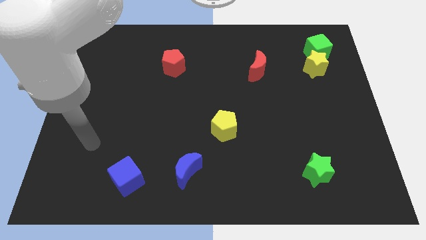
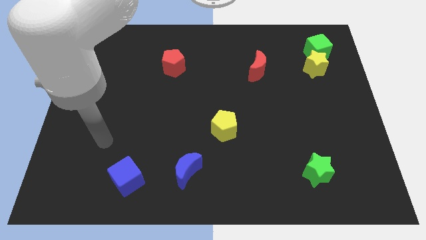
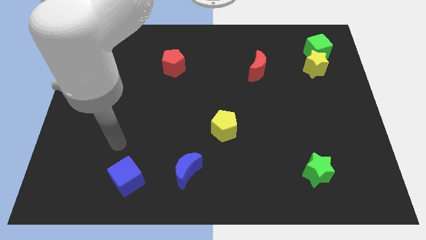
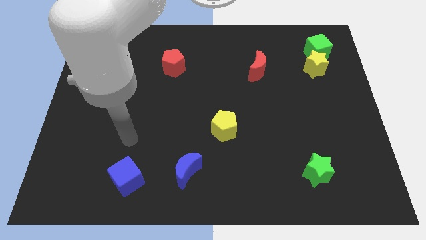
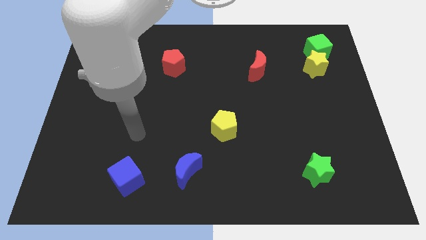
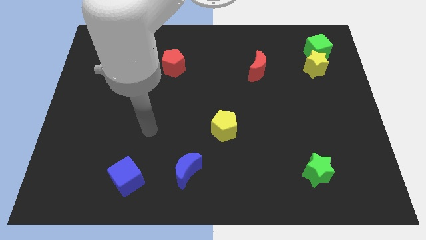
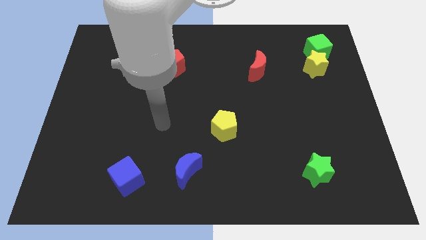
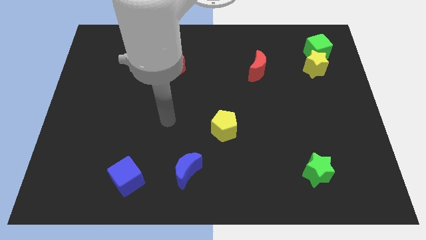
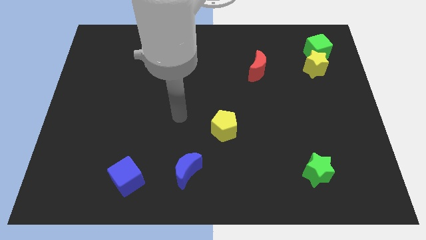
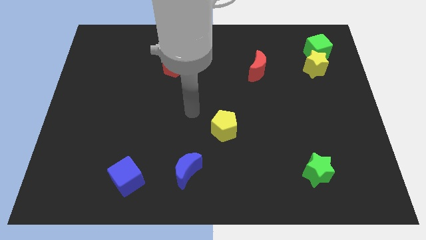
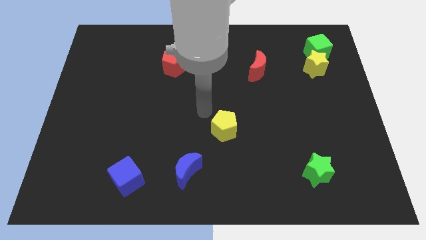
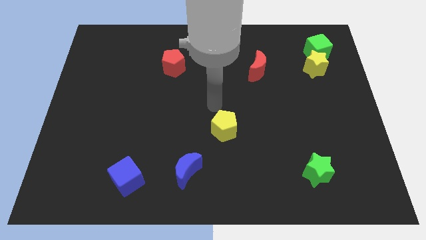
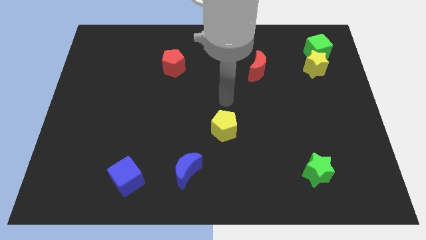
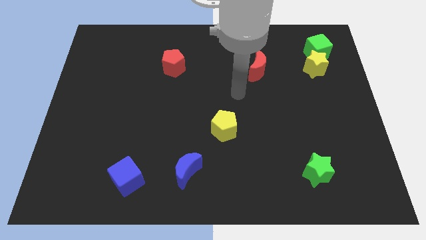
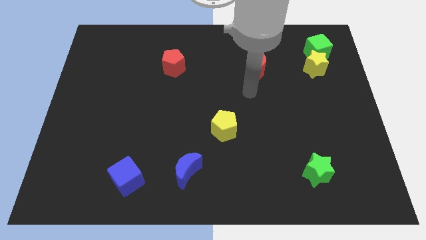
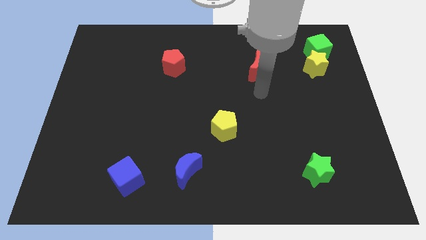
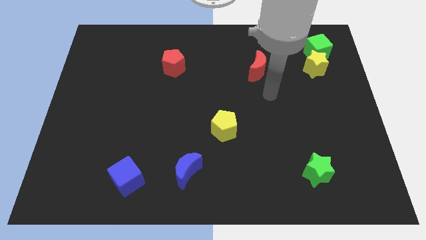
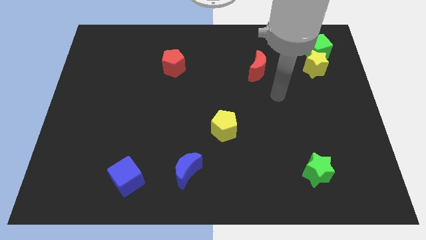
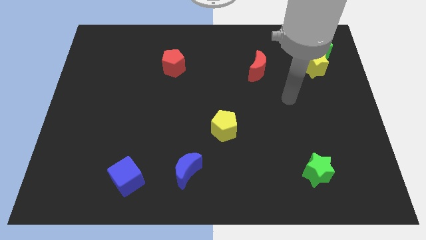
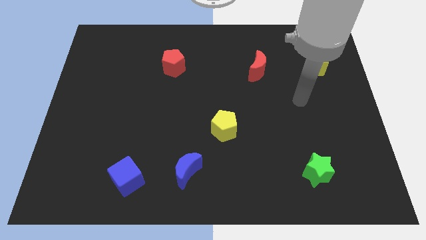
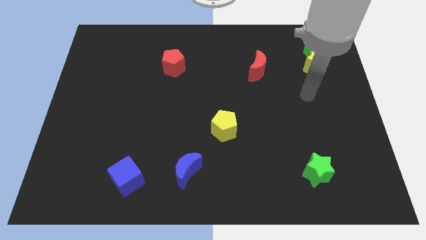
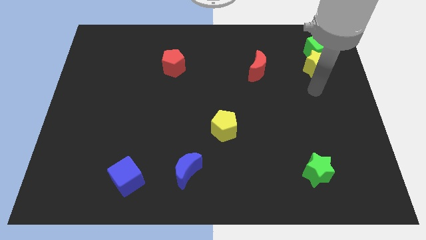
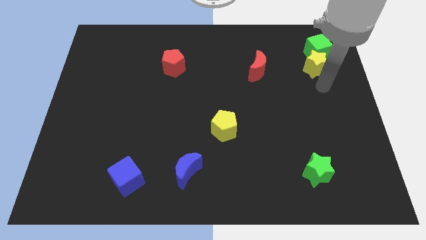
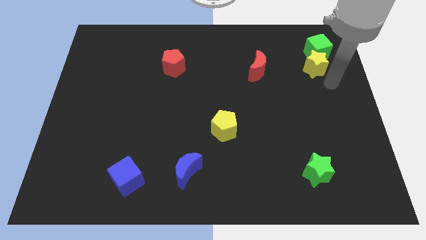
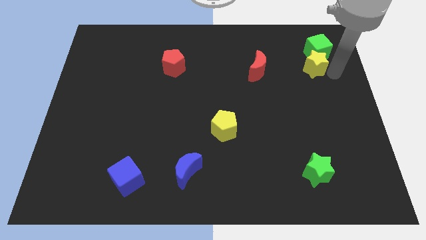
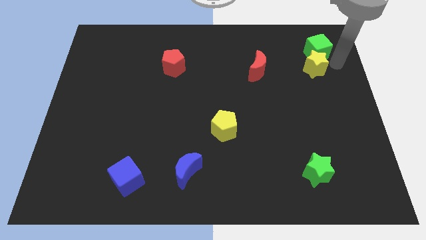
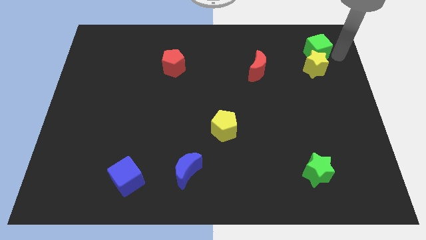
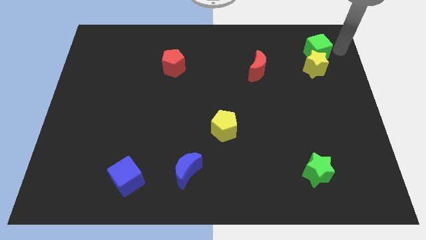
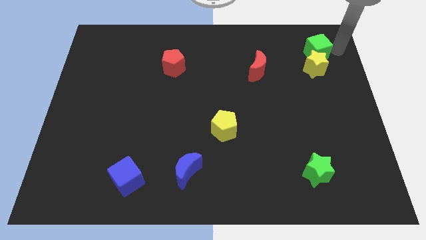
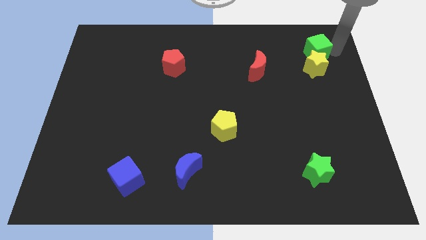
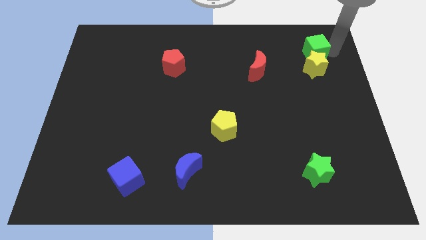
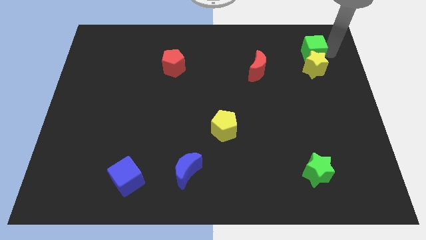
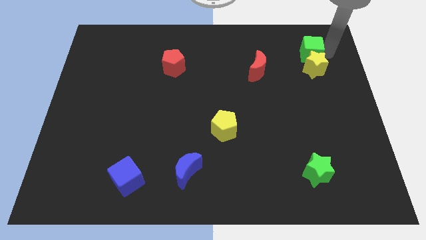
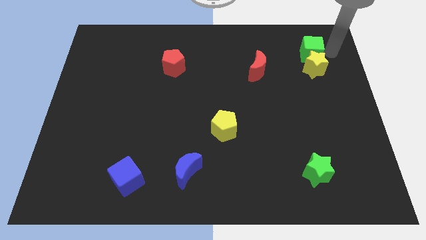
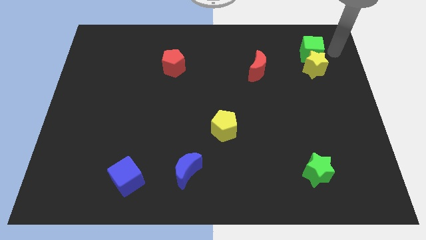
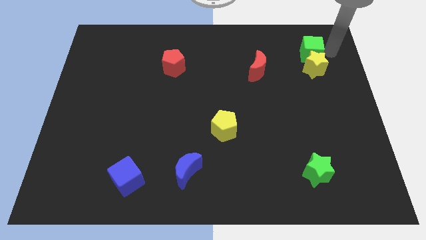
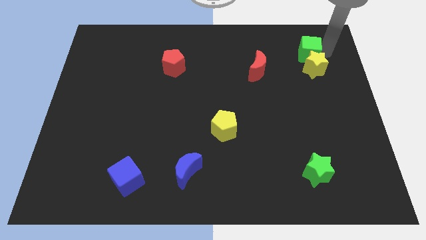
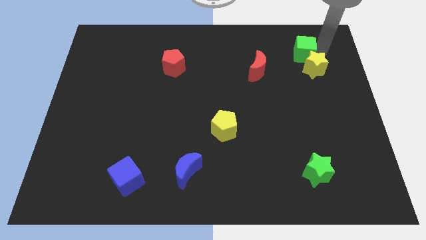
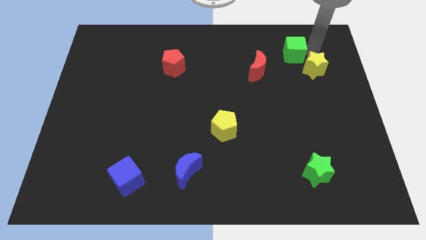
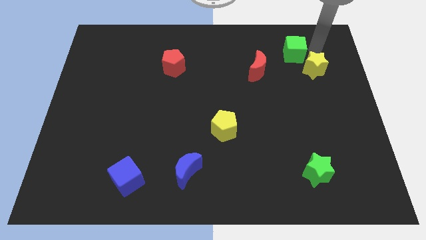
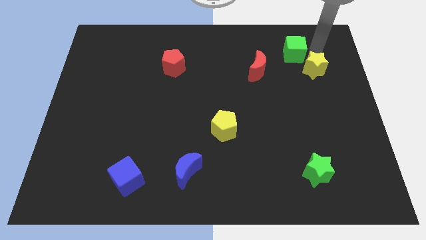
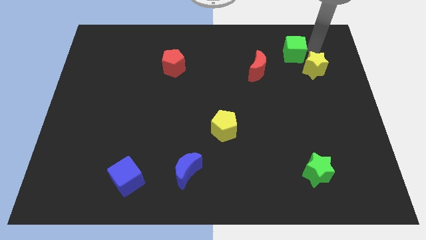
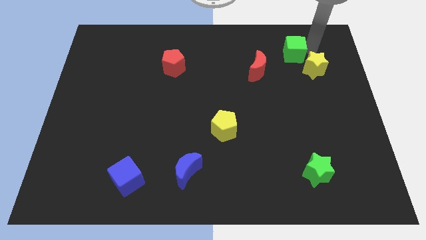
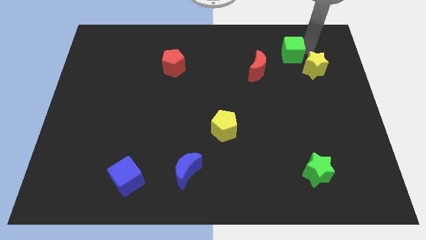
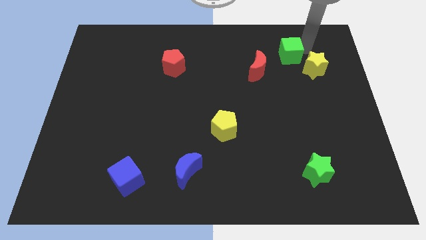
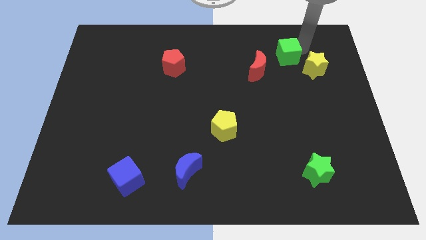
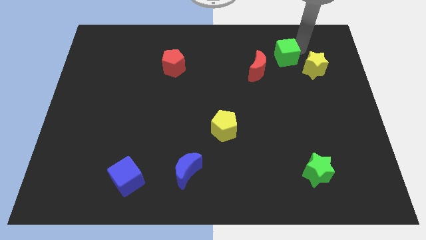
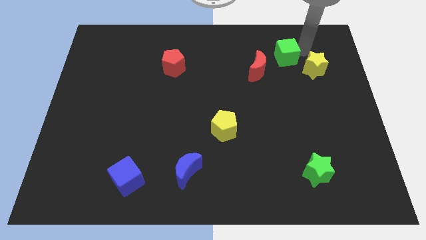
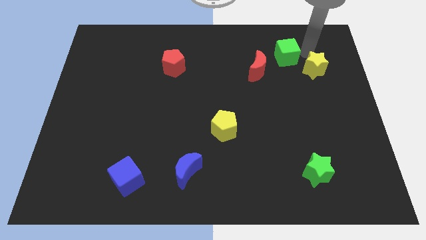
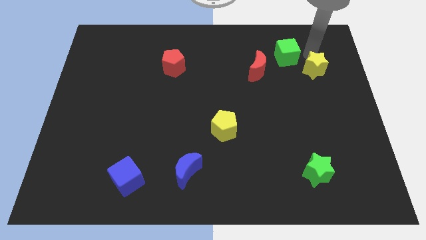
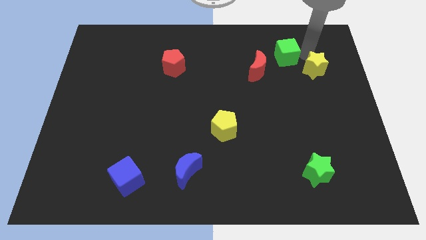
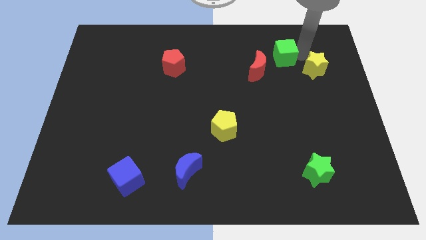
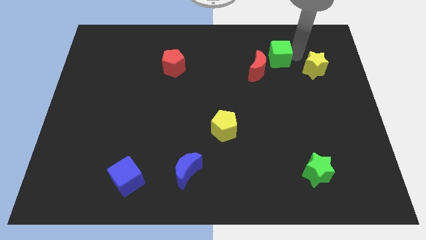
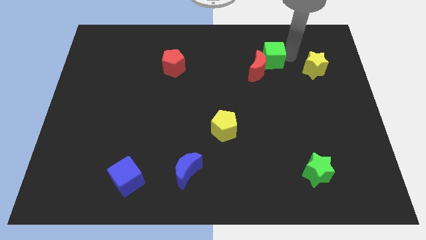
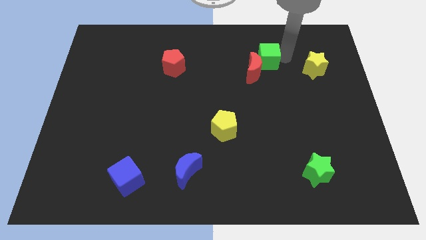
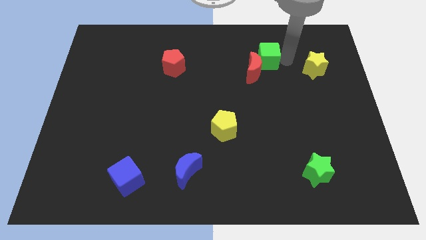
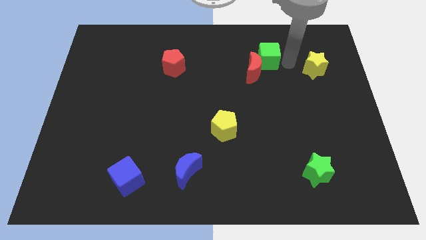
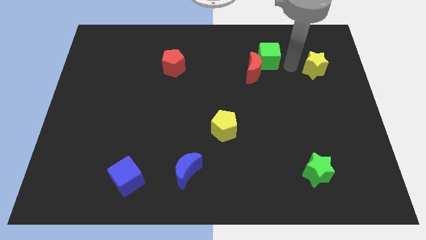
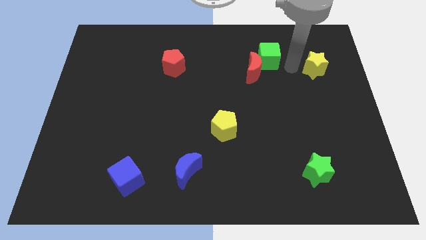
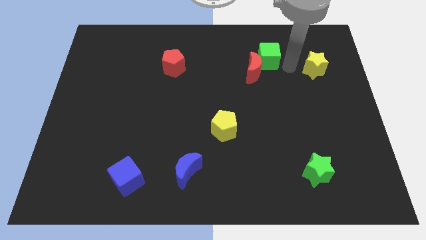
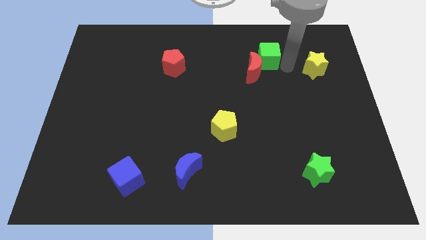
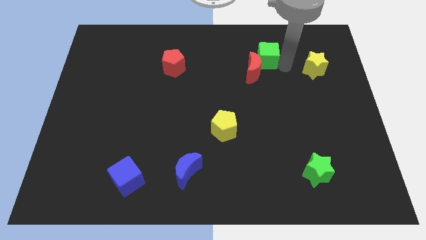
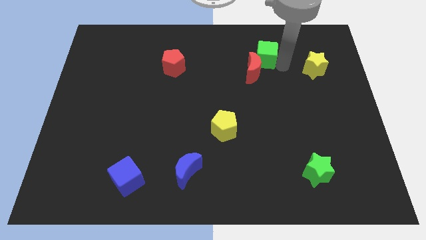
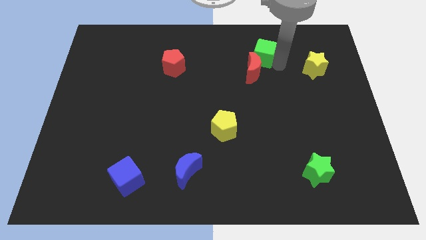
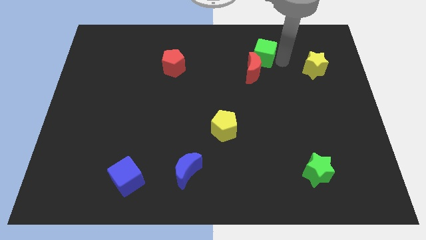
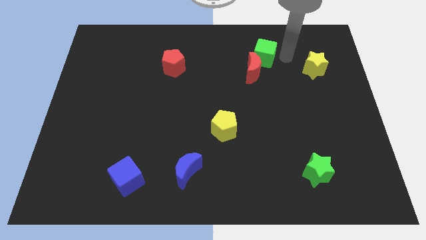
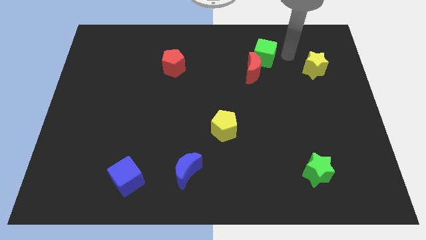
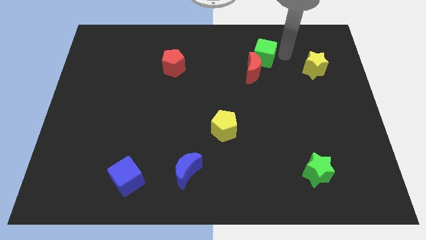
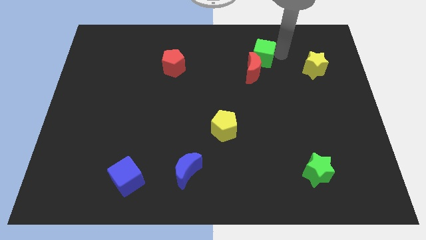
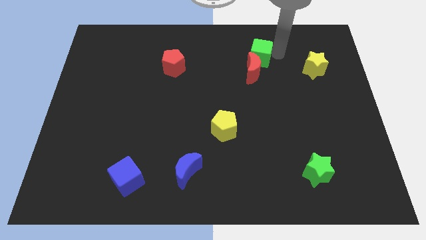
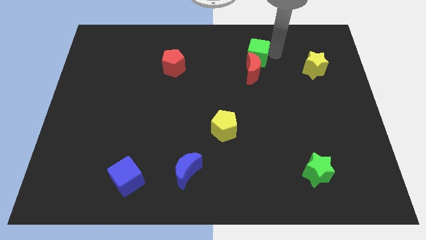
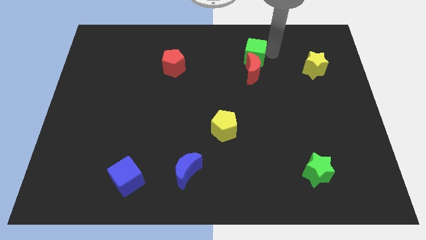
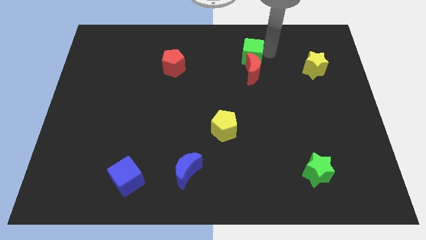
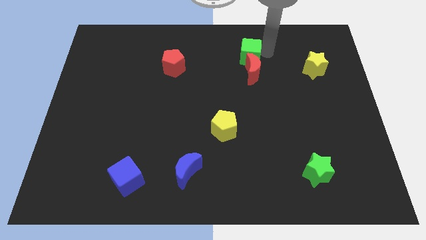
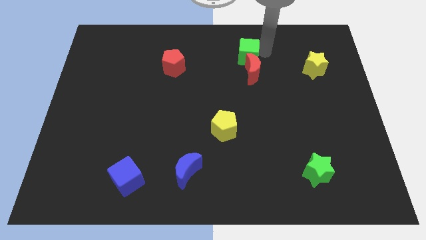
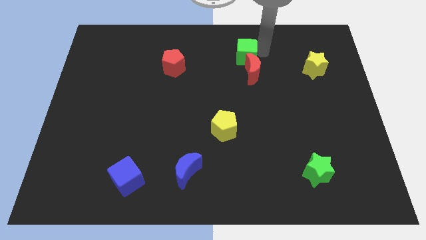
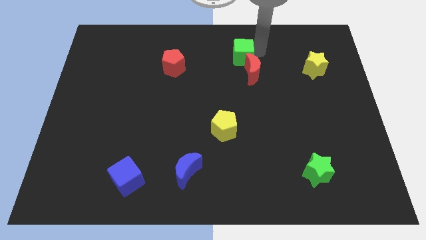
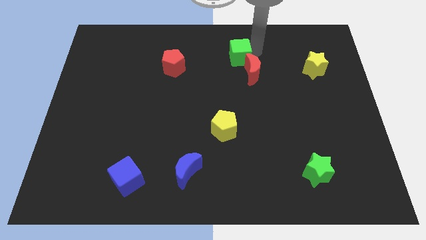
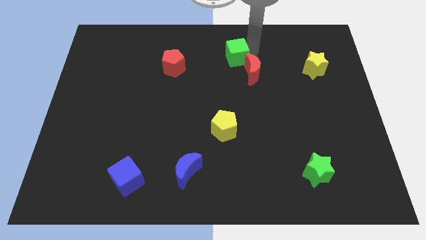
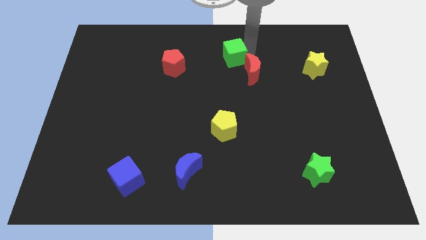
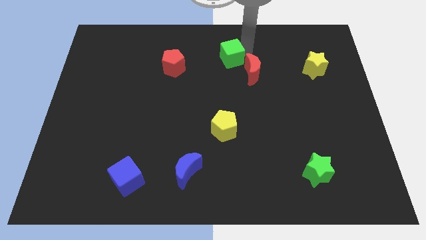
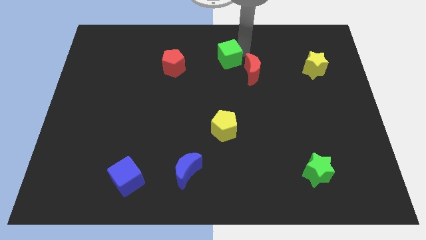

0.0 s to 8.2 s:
push the green cube to the right of the red pentagon

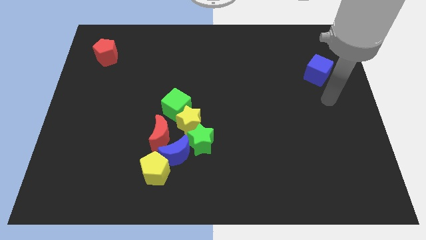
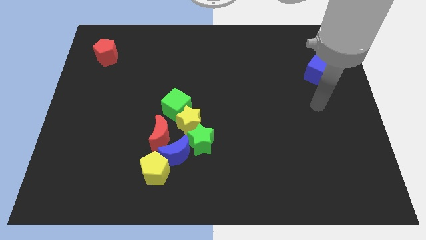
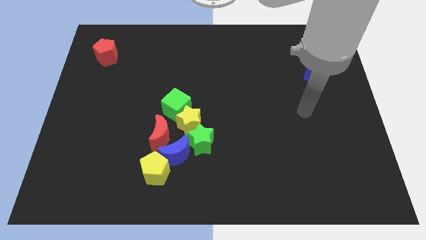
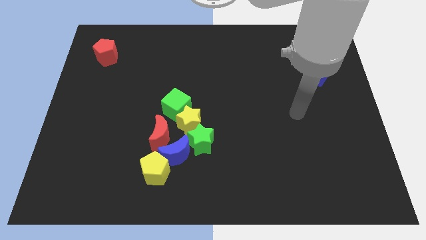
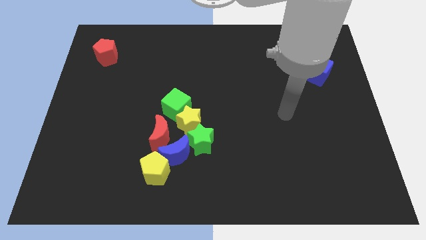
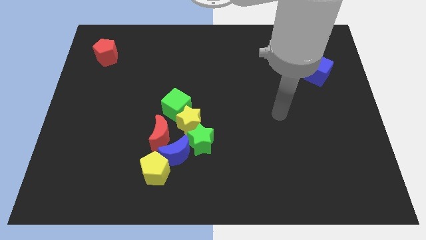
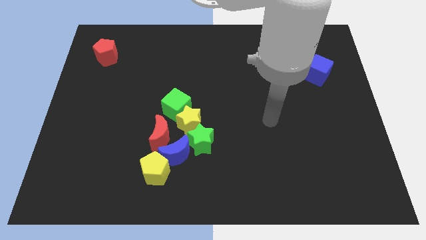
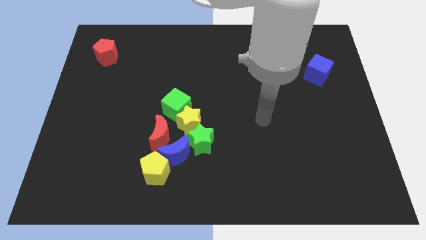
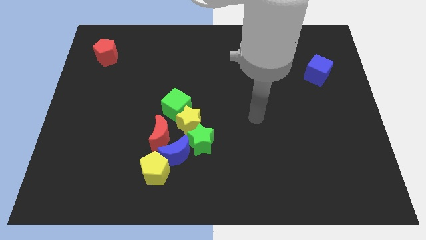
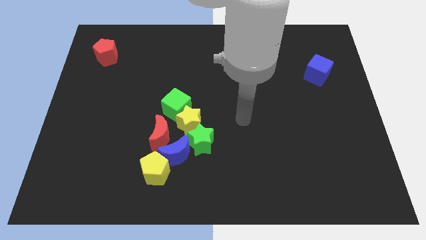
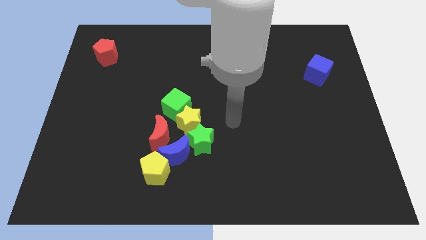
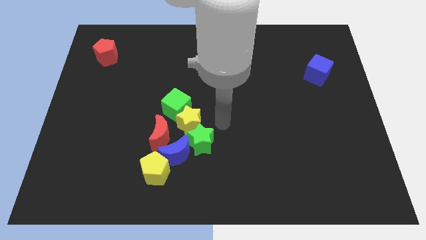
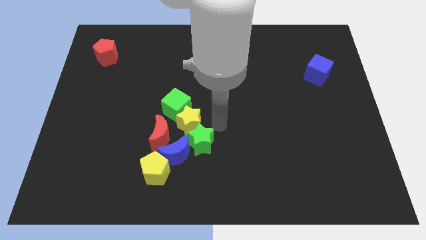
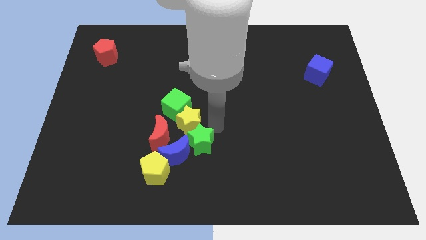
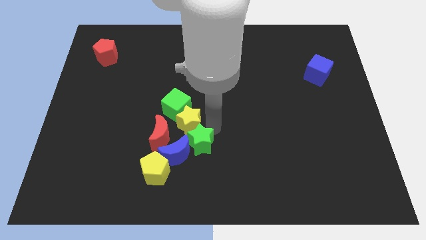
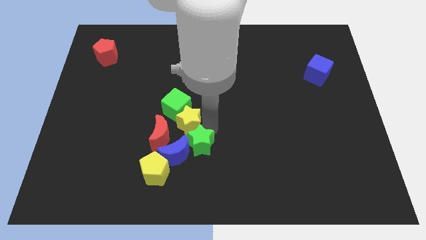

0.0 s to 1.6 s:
put the green star to the bottom right side of the red moon
